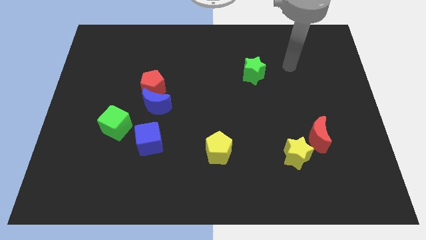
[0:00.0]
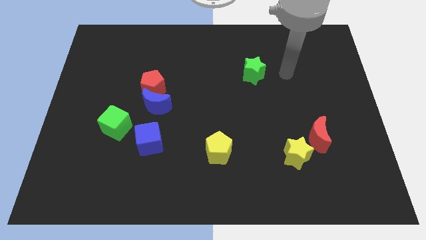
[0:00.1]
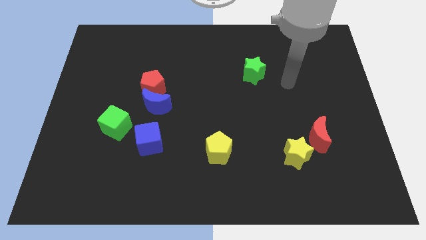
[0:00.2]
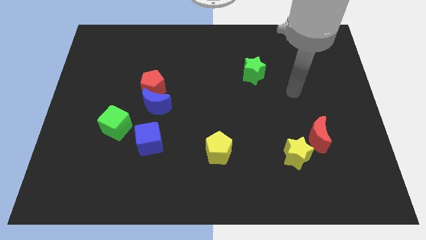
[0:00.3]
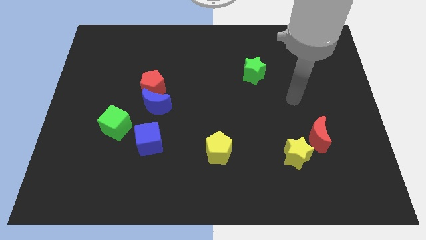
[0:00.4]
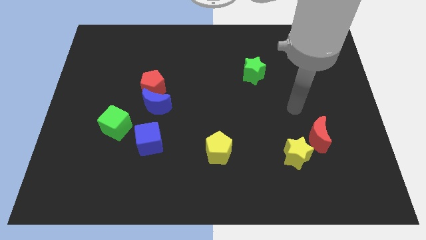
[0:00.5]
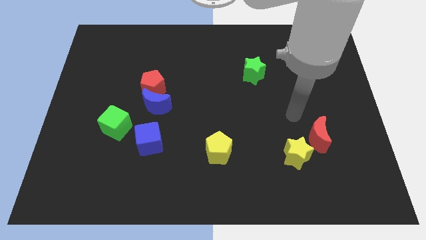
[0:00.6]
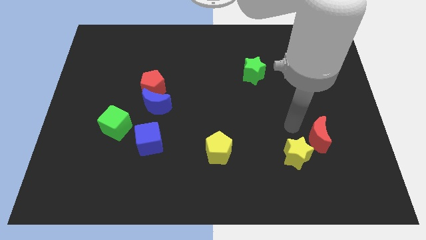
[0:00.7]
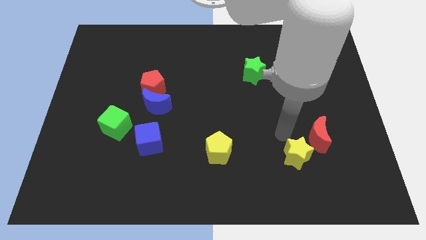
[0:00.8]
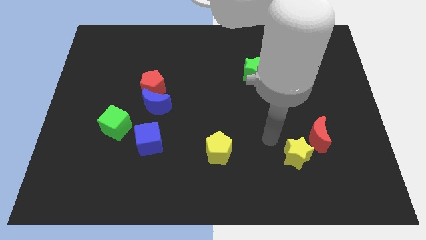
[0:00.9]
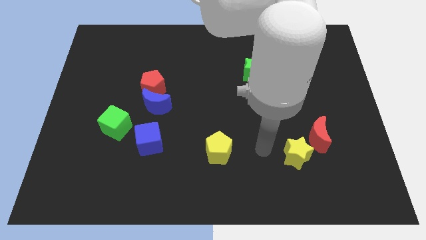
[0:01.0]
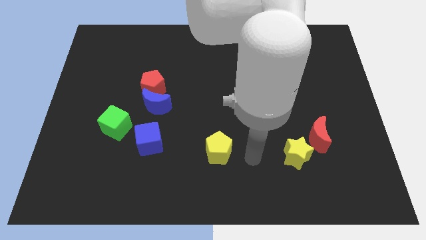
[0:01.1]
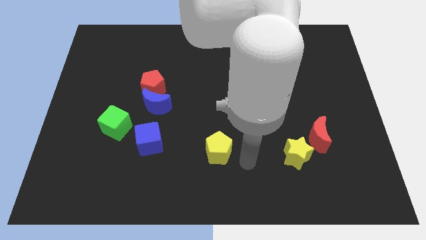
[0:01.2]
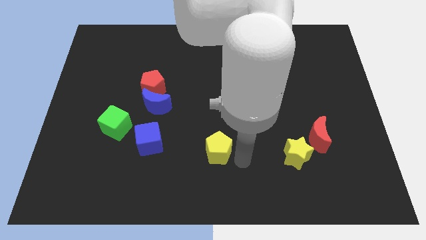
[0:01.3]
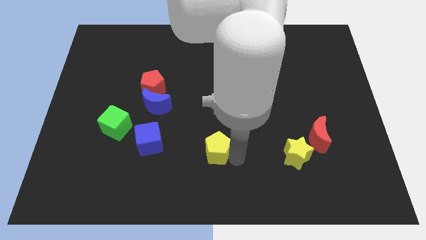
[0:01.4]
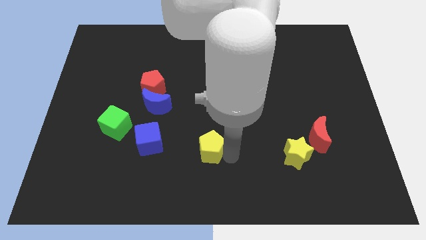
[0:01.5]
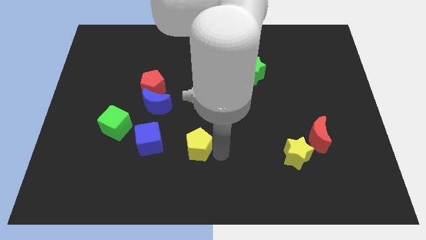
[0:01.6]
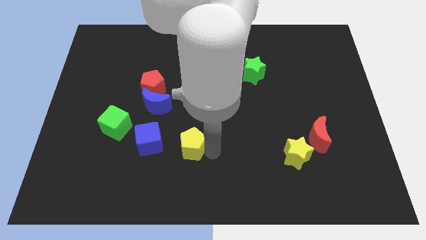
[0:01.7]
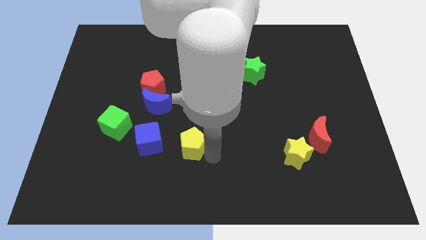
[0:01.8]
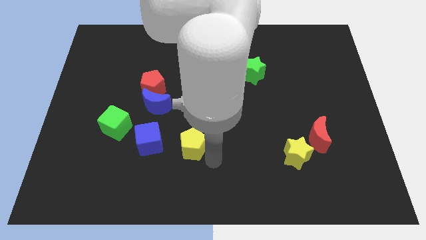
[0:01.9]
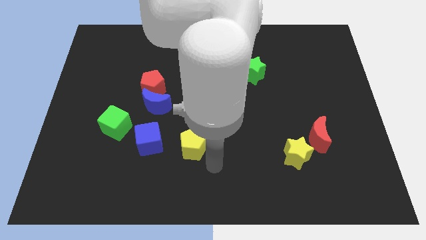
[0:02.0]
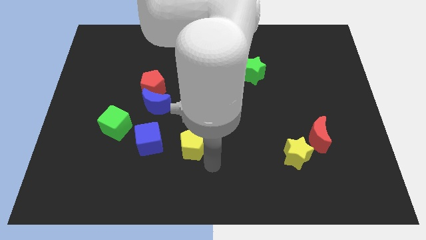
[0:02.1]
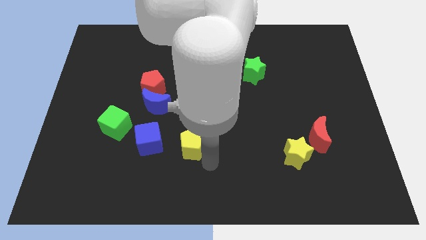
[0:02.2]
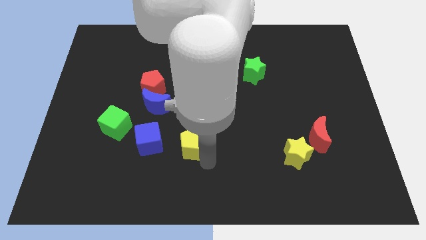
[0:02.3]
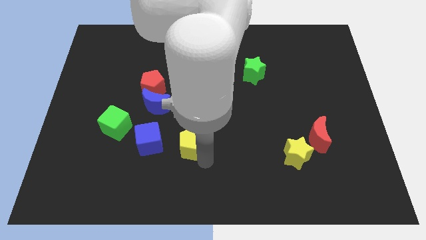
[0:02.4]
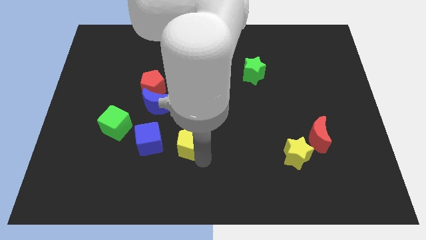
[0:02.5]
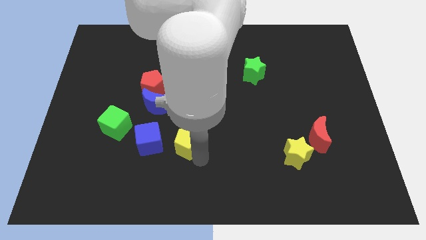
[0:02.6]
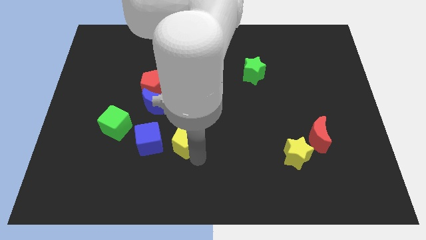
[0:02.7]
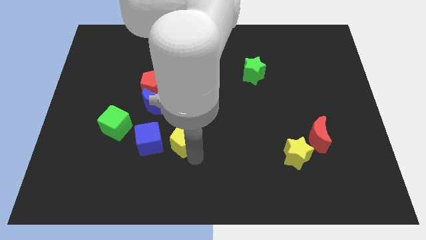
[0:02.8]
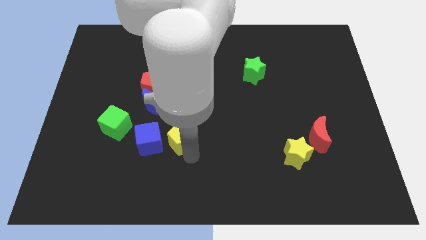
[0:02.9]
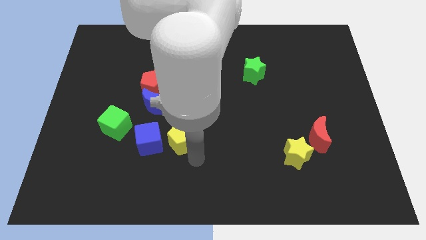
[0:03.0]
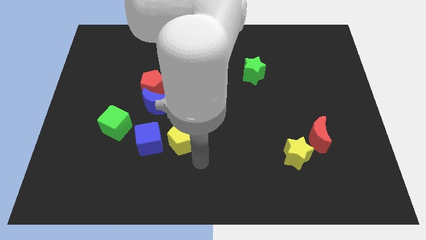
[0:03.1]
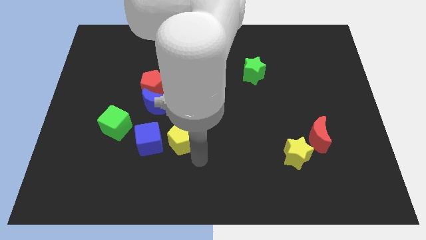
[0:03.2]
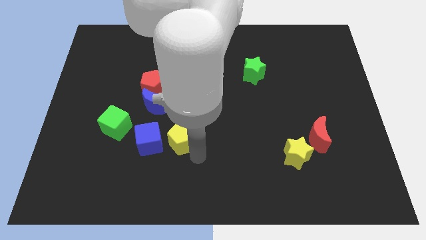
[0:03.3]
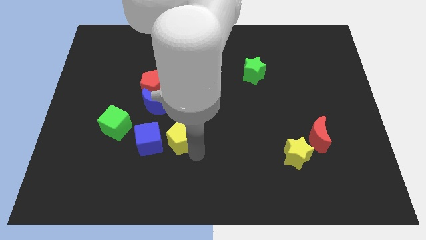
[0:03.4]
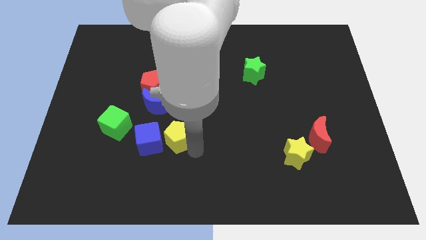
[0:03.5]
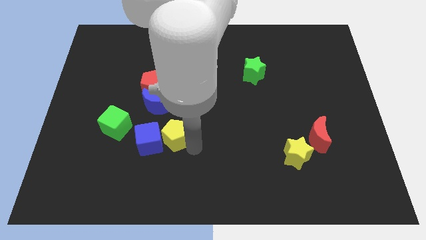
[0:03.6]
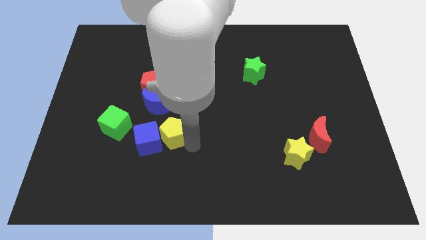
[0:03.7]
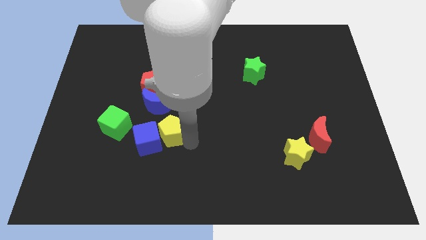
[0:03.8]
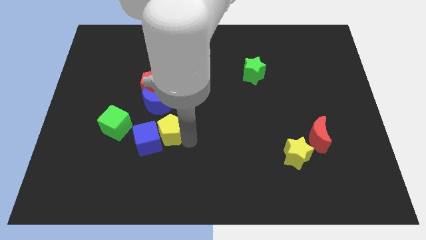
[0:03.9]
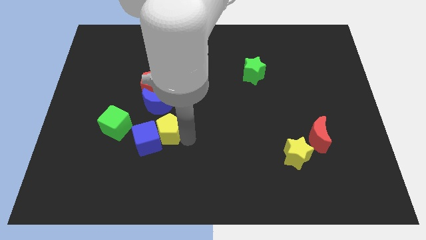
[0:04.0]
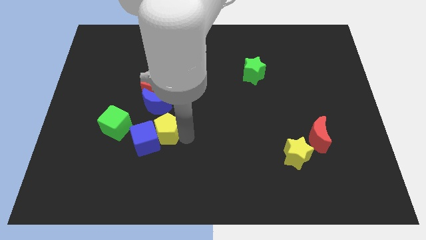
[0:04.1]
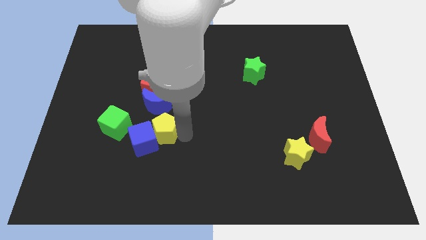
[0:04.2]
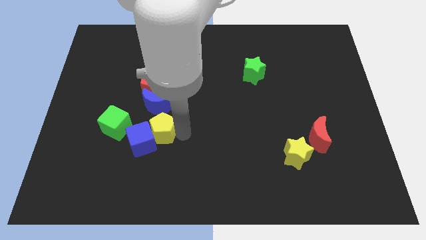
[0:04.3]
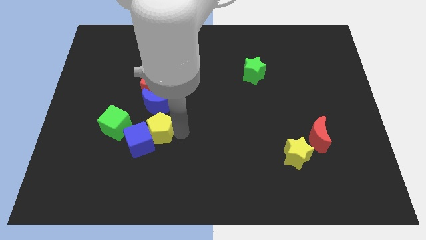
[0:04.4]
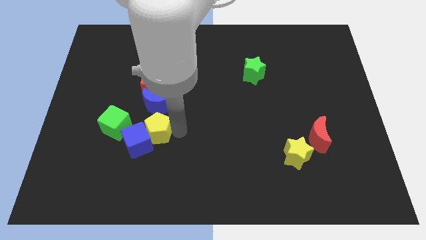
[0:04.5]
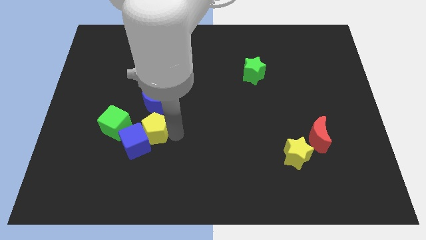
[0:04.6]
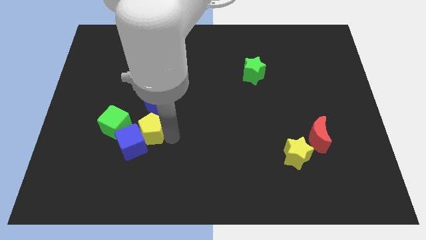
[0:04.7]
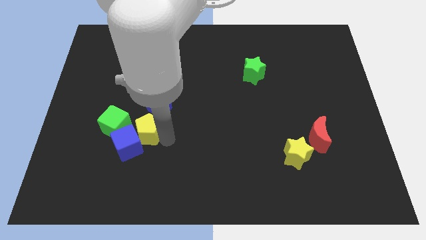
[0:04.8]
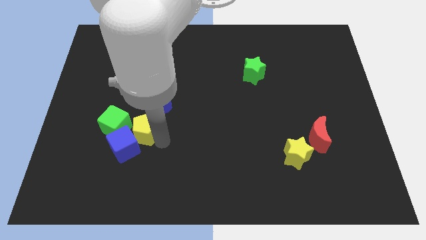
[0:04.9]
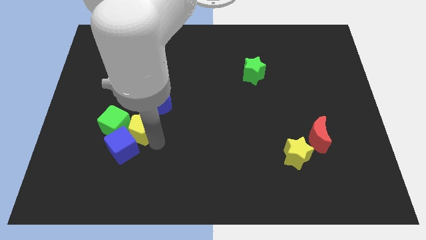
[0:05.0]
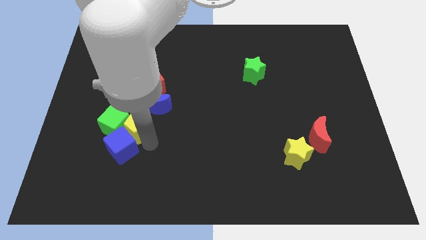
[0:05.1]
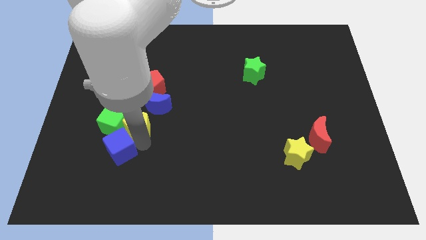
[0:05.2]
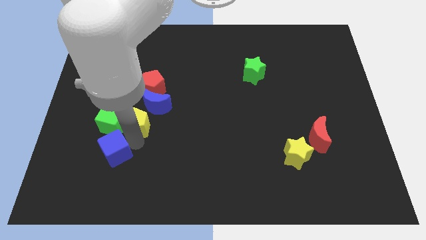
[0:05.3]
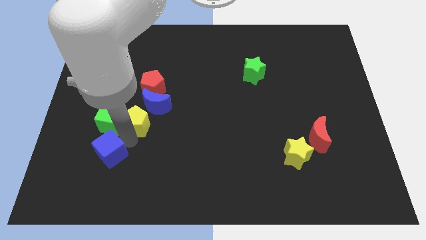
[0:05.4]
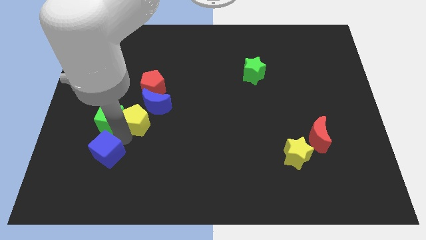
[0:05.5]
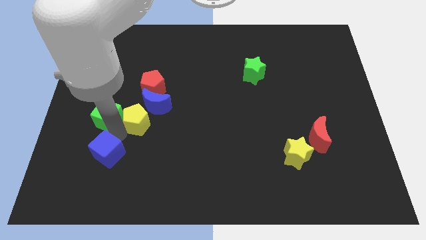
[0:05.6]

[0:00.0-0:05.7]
push the yellow pentagon towards the blue moon

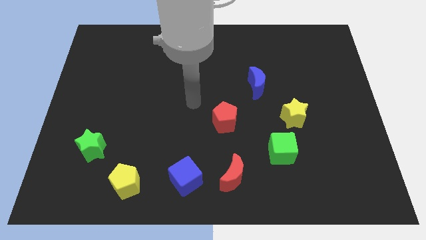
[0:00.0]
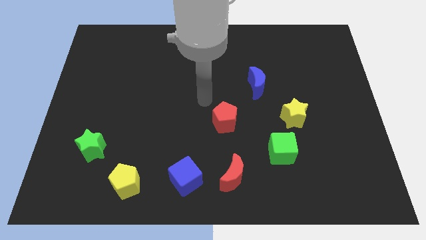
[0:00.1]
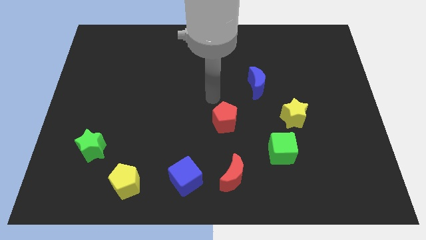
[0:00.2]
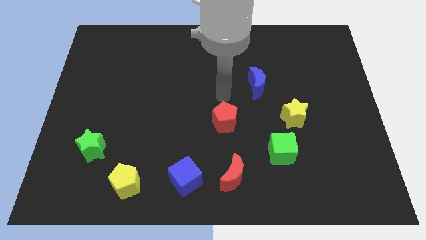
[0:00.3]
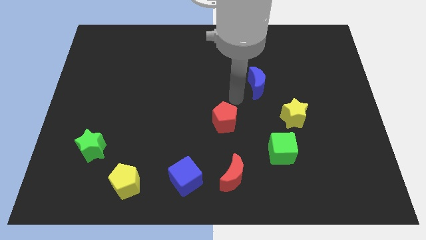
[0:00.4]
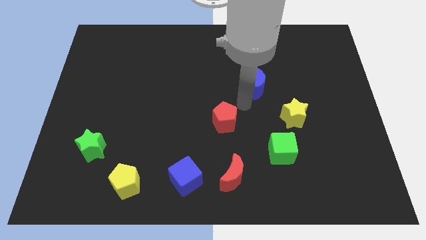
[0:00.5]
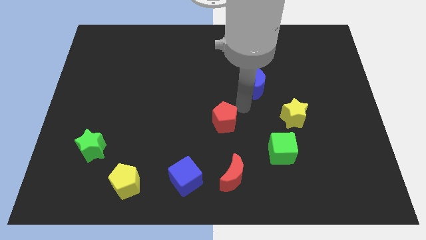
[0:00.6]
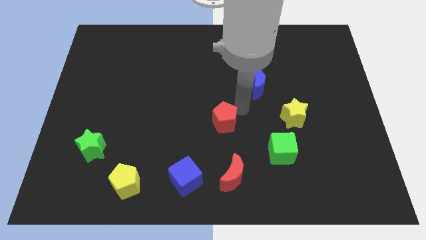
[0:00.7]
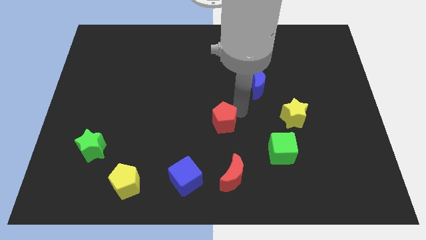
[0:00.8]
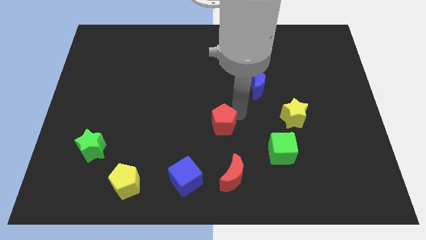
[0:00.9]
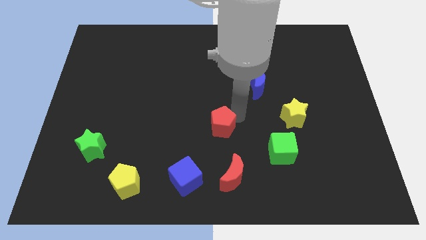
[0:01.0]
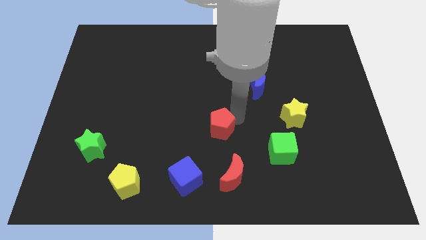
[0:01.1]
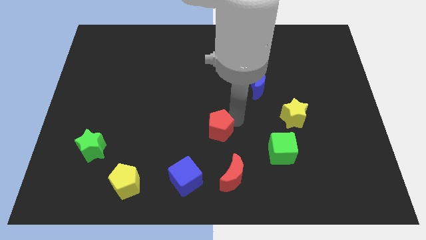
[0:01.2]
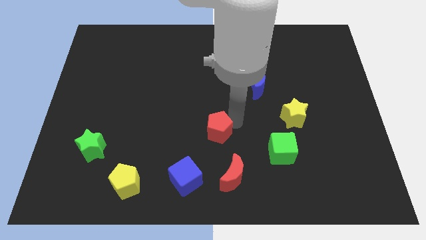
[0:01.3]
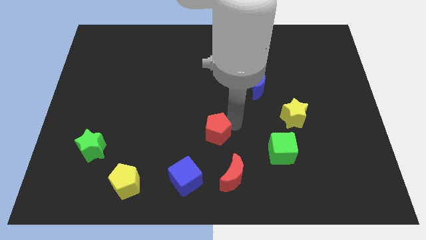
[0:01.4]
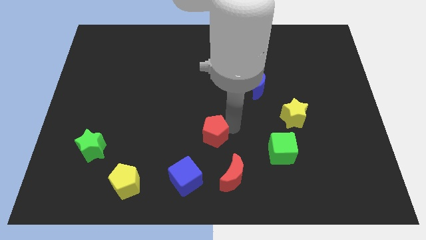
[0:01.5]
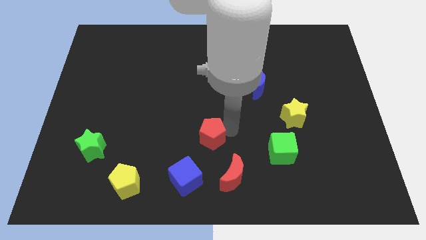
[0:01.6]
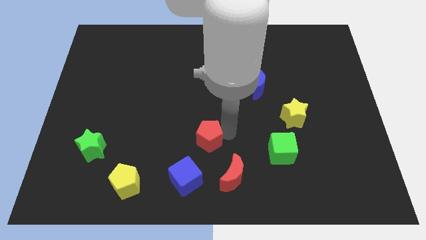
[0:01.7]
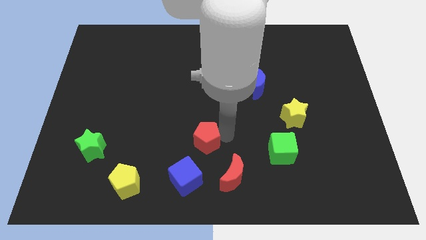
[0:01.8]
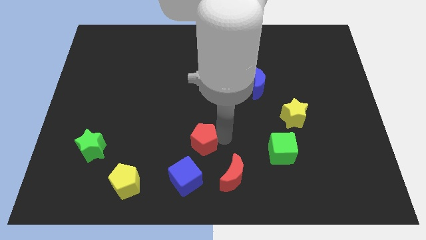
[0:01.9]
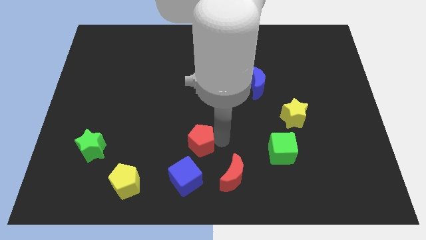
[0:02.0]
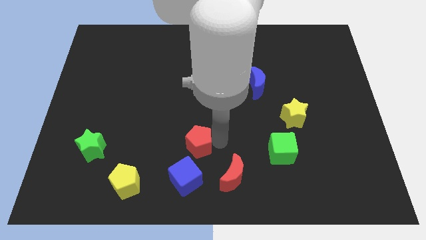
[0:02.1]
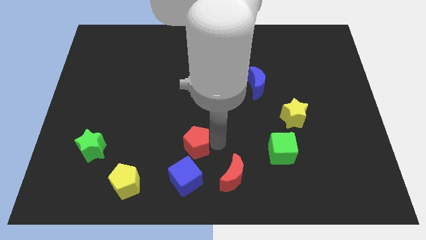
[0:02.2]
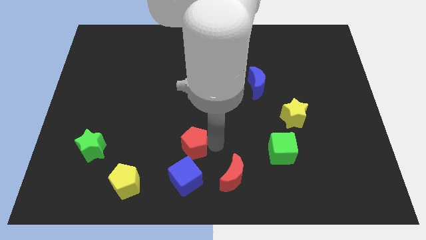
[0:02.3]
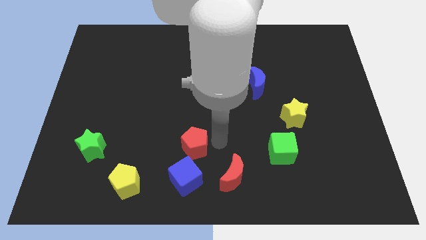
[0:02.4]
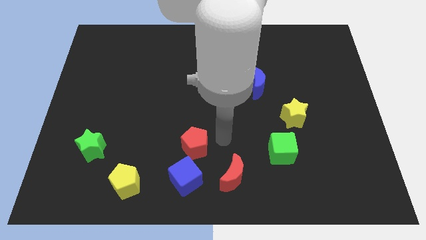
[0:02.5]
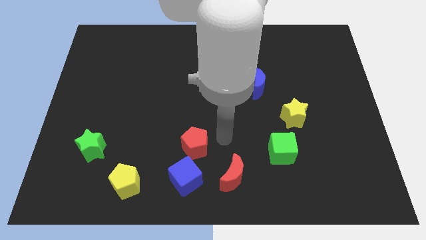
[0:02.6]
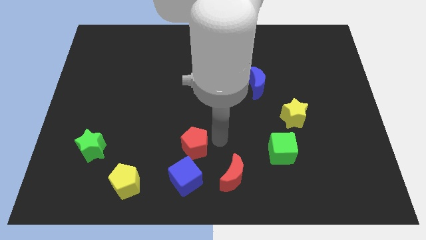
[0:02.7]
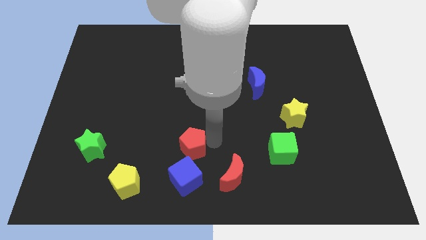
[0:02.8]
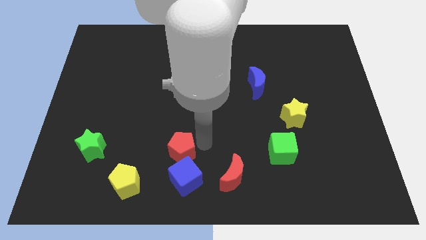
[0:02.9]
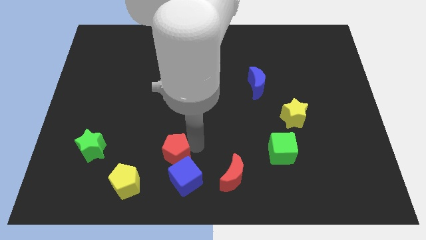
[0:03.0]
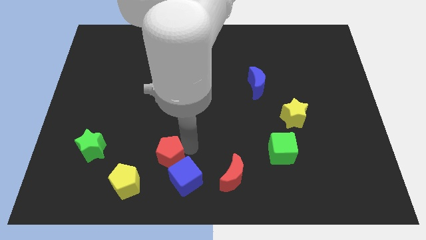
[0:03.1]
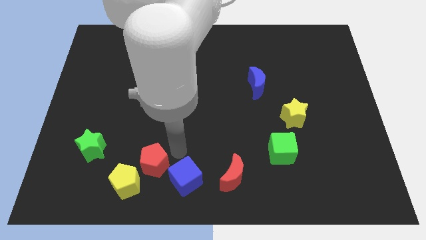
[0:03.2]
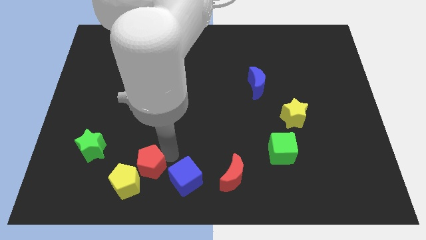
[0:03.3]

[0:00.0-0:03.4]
slide the red pentagon to the yellow pentagon
